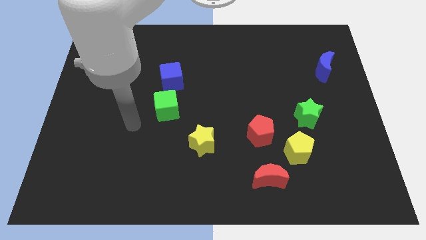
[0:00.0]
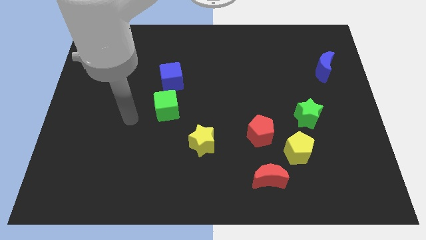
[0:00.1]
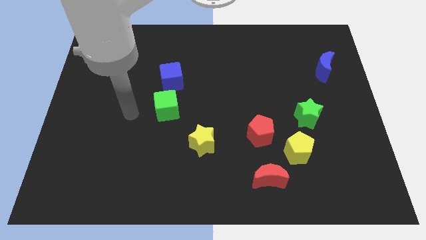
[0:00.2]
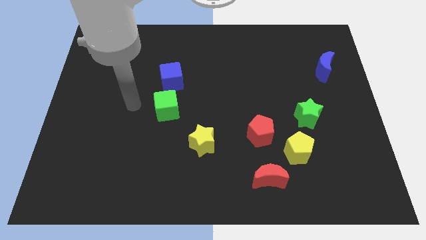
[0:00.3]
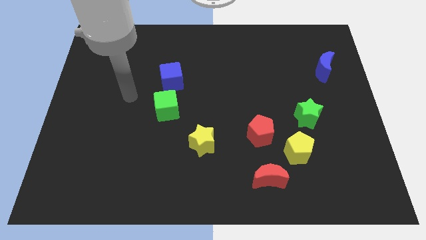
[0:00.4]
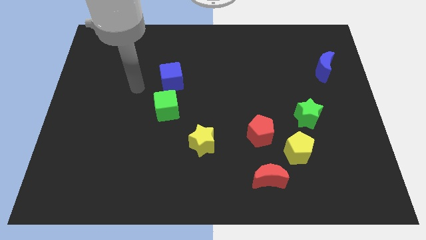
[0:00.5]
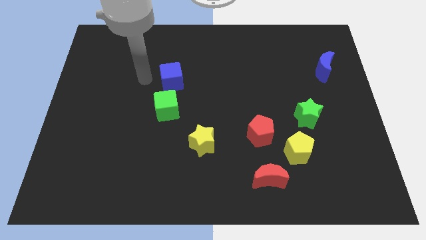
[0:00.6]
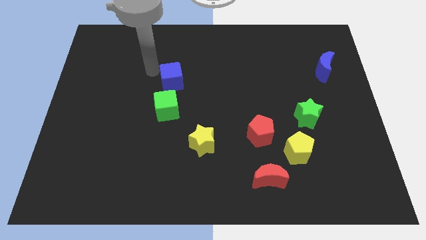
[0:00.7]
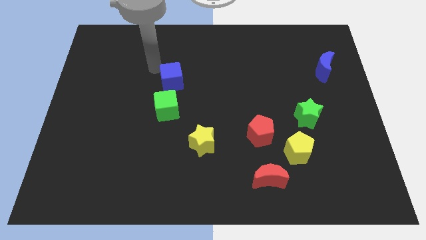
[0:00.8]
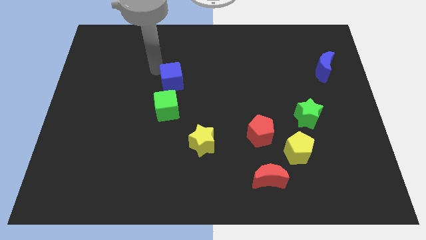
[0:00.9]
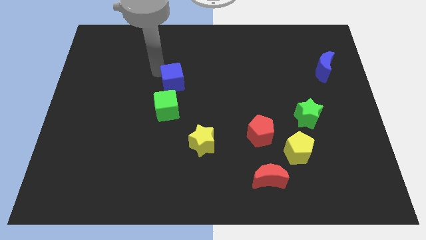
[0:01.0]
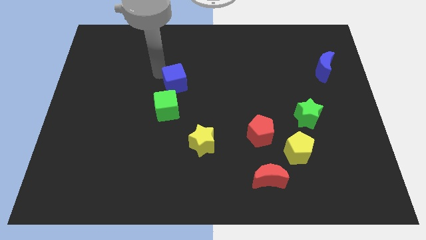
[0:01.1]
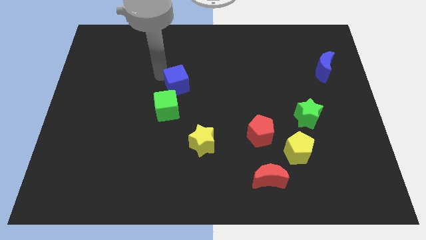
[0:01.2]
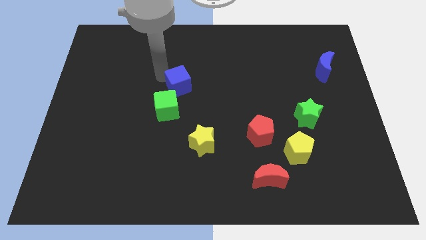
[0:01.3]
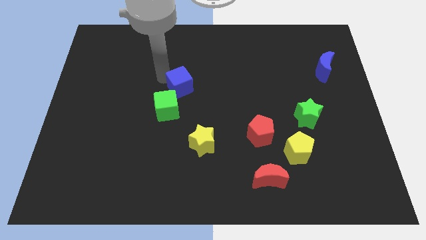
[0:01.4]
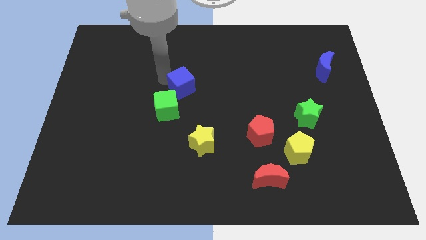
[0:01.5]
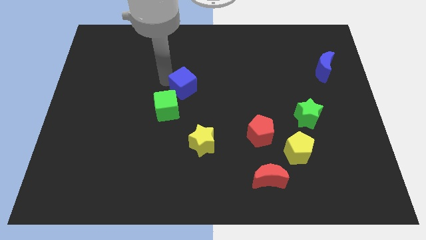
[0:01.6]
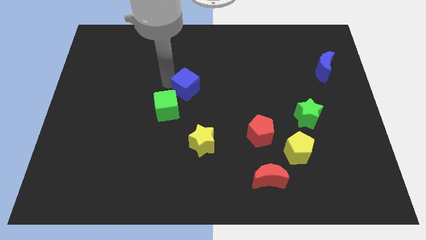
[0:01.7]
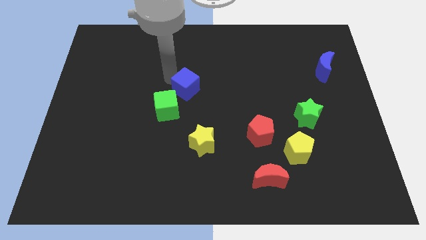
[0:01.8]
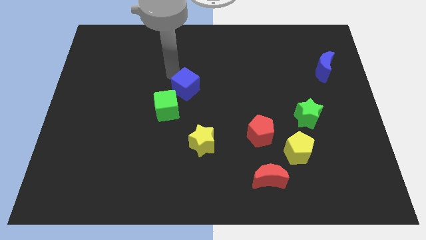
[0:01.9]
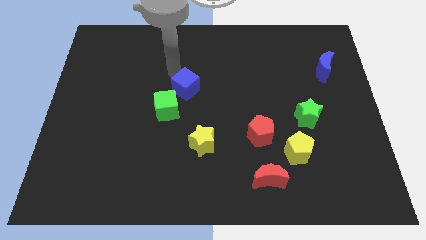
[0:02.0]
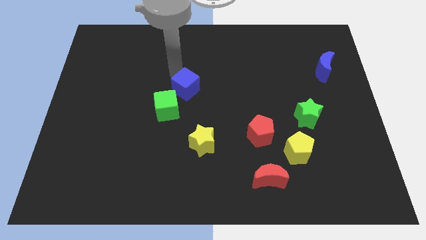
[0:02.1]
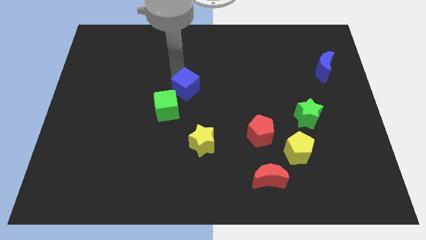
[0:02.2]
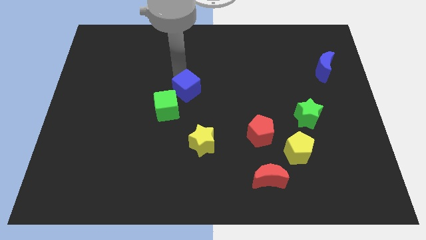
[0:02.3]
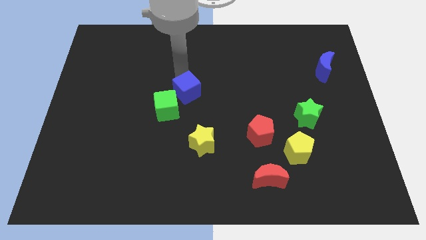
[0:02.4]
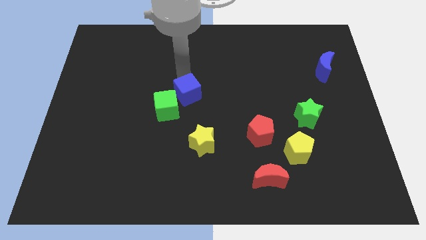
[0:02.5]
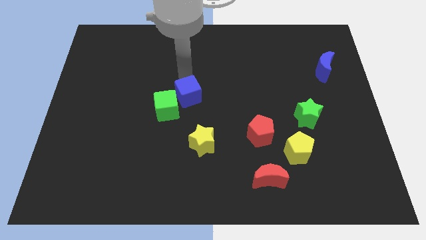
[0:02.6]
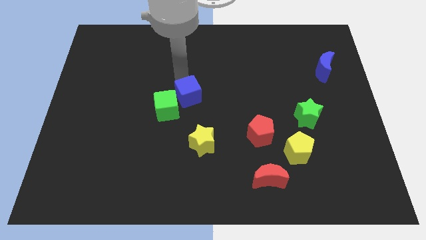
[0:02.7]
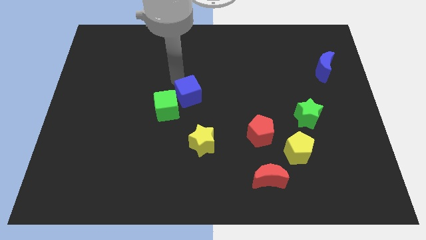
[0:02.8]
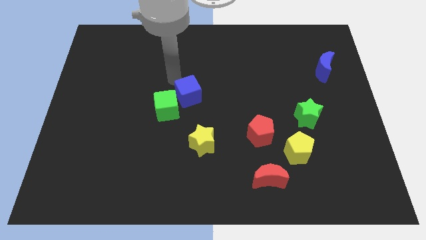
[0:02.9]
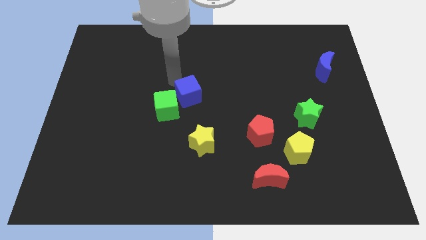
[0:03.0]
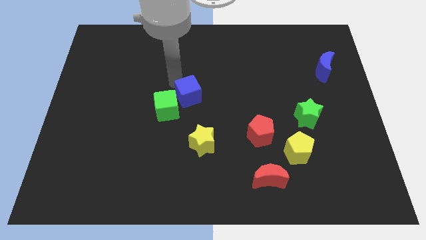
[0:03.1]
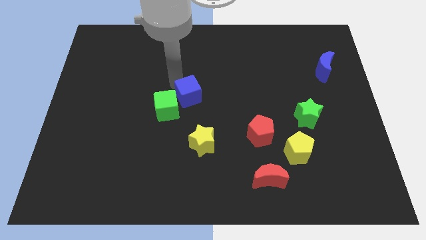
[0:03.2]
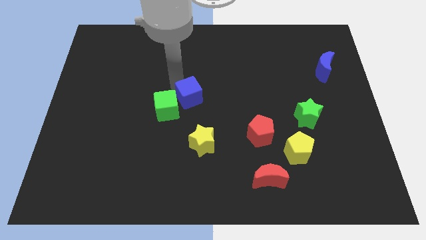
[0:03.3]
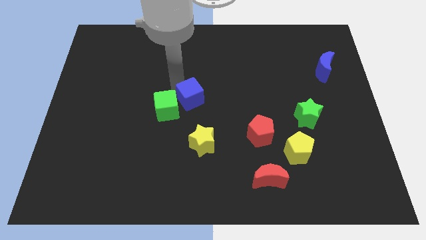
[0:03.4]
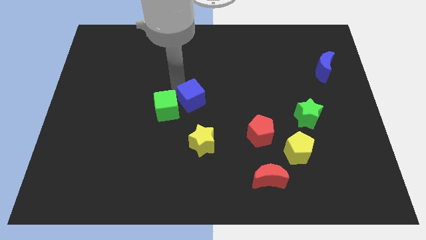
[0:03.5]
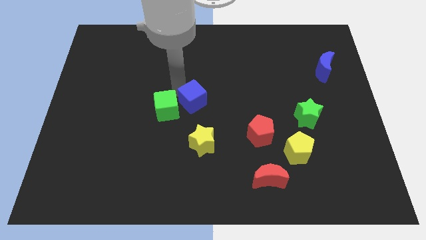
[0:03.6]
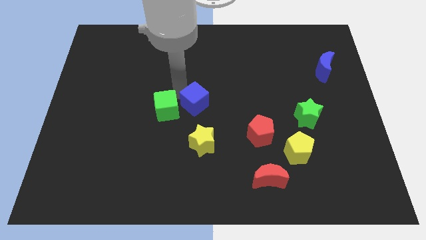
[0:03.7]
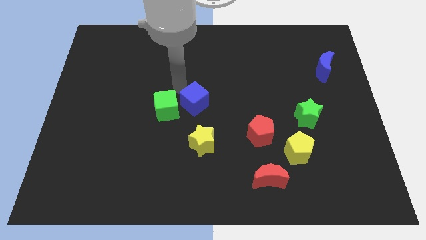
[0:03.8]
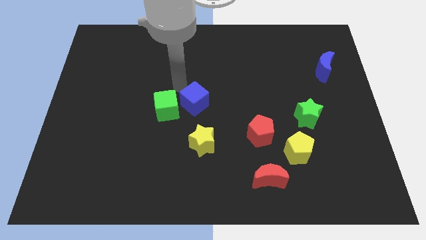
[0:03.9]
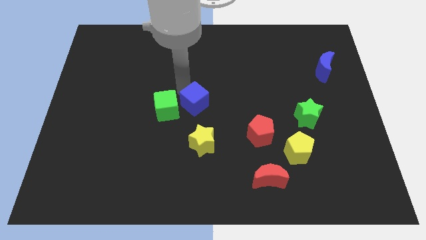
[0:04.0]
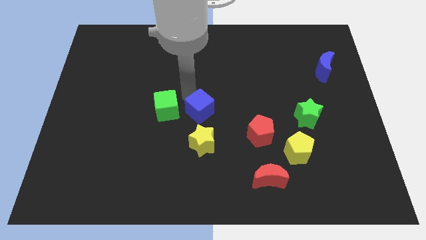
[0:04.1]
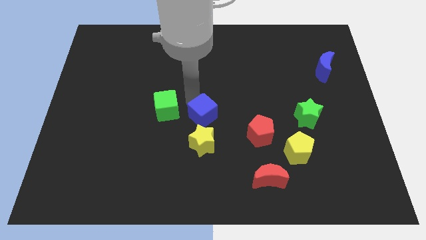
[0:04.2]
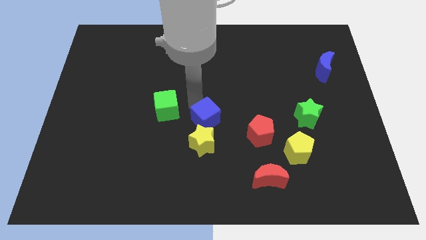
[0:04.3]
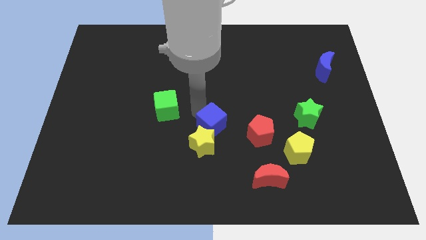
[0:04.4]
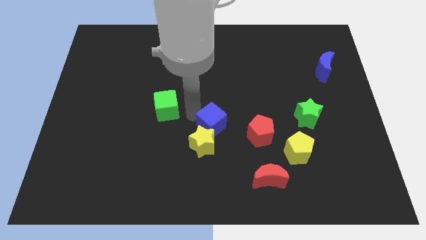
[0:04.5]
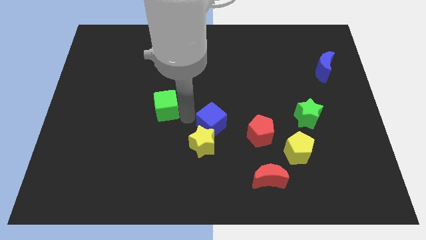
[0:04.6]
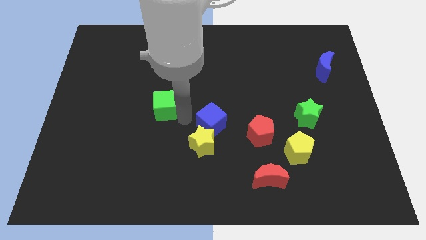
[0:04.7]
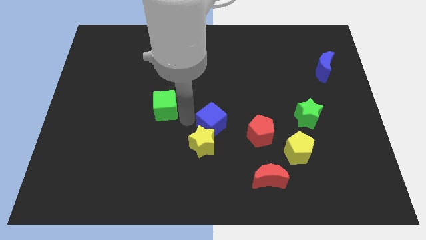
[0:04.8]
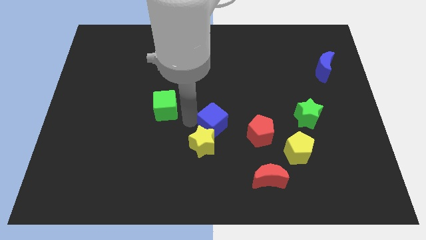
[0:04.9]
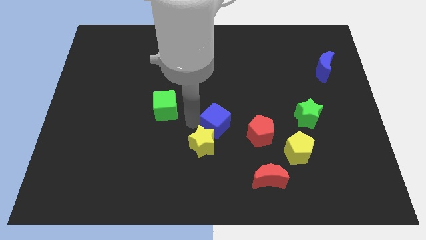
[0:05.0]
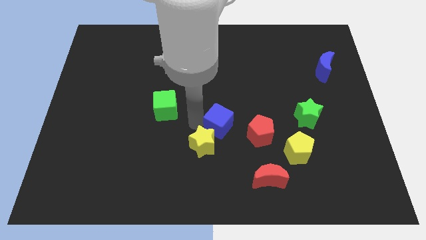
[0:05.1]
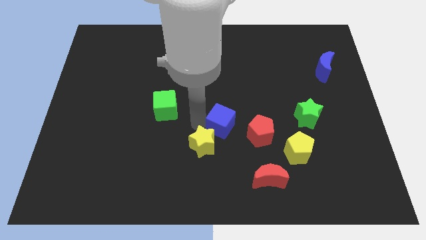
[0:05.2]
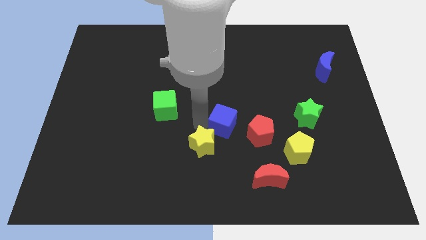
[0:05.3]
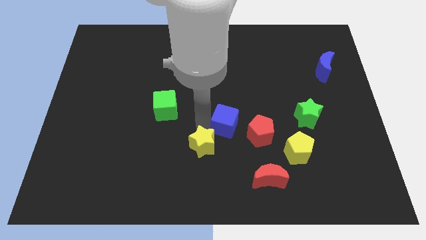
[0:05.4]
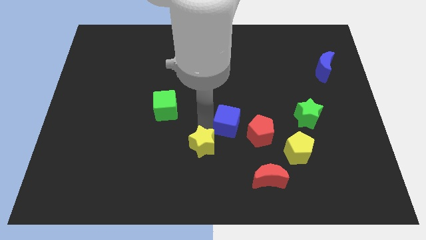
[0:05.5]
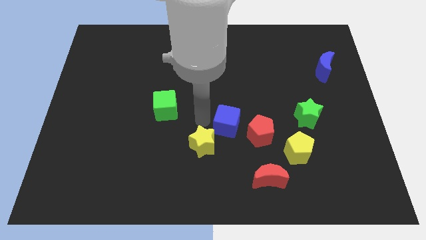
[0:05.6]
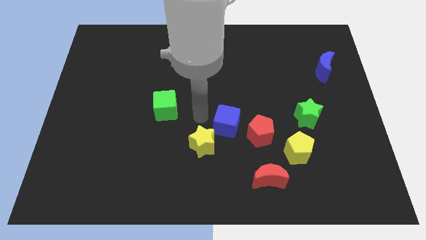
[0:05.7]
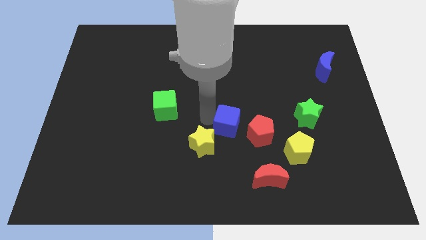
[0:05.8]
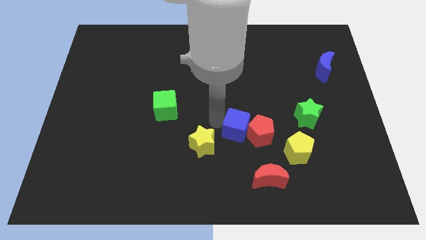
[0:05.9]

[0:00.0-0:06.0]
move the blue cube to the red pentagon

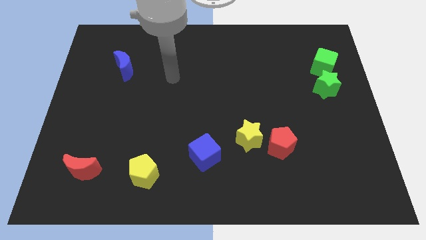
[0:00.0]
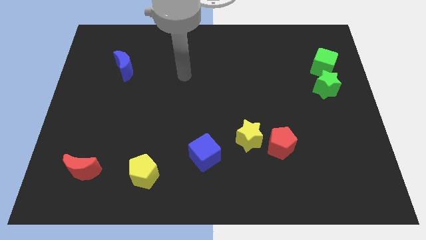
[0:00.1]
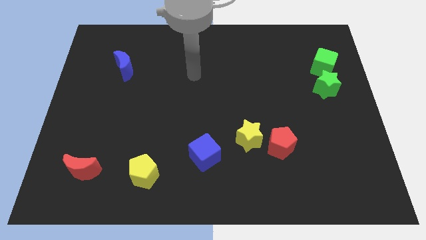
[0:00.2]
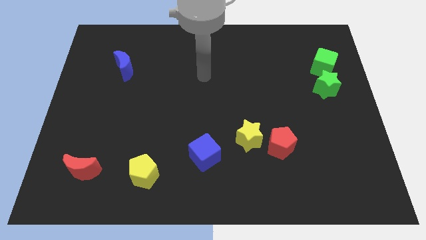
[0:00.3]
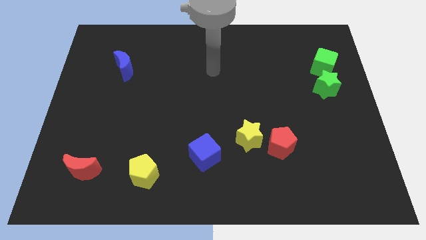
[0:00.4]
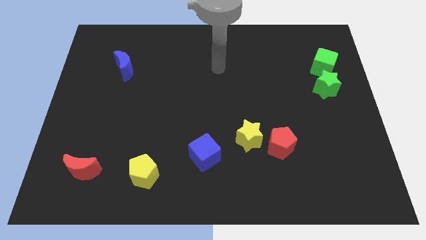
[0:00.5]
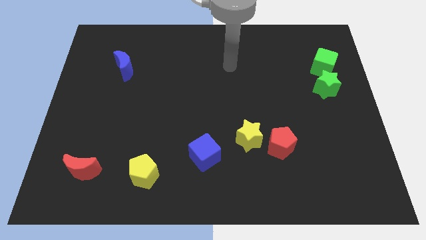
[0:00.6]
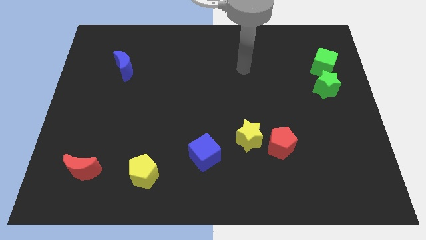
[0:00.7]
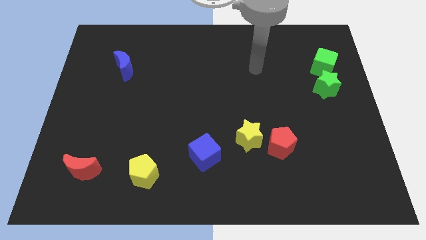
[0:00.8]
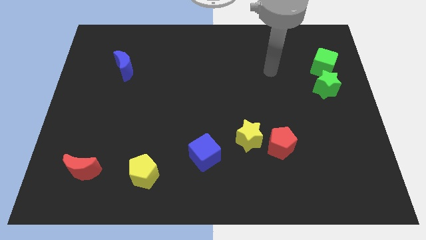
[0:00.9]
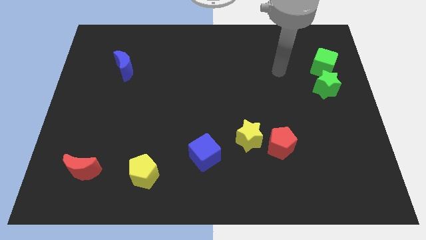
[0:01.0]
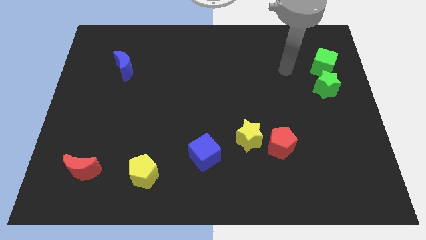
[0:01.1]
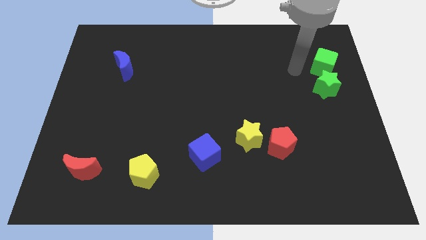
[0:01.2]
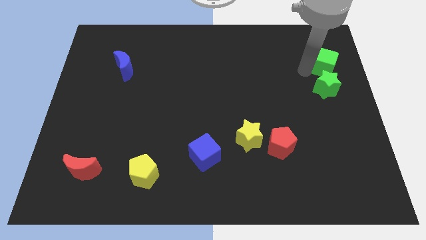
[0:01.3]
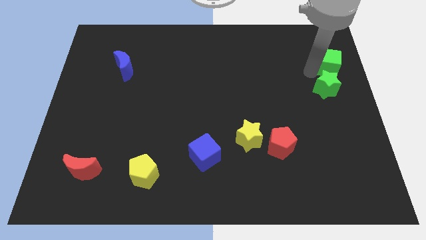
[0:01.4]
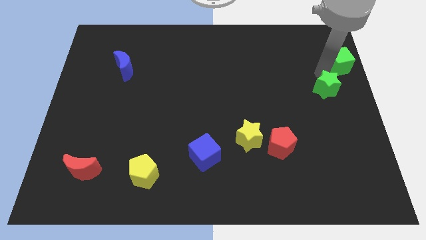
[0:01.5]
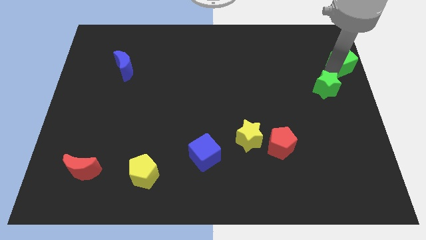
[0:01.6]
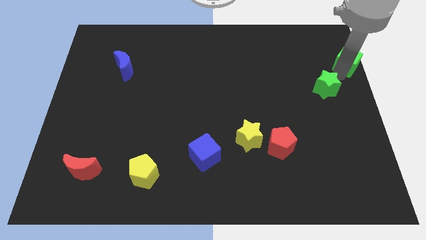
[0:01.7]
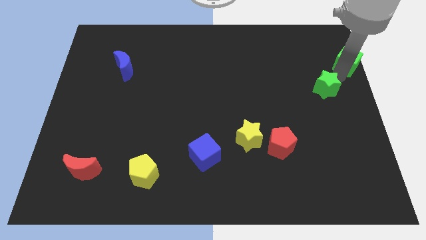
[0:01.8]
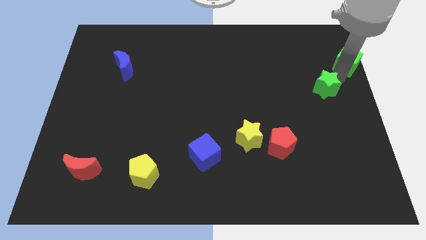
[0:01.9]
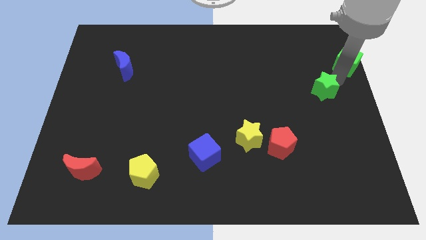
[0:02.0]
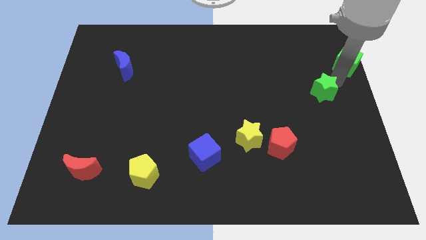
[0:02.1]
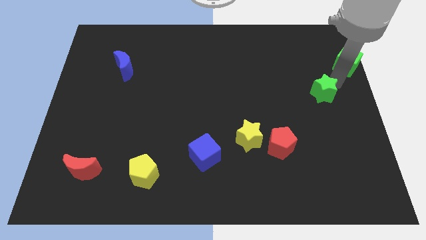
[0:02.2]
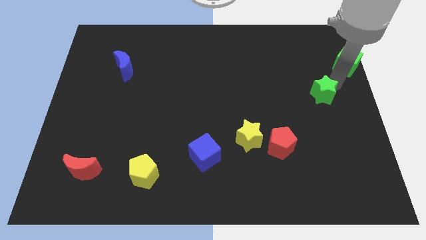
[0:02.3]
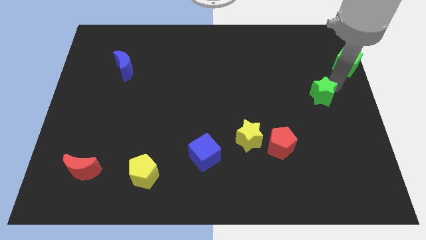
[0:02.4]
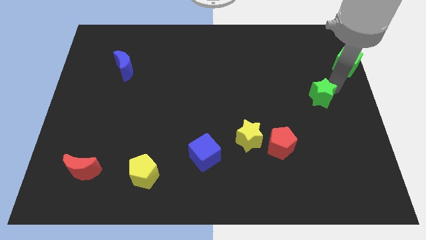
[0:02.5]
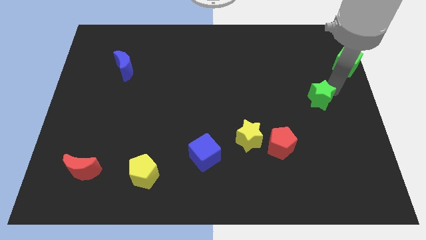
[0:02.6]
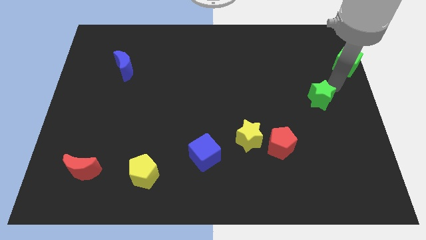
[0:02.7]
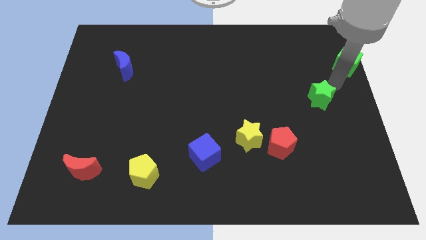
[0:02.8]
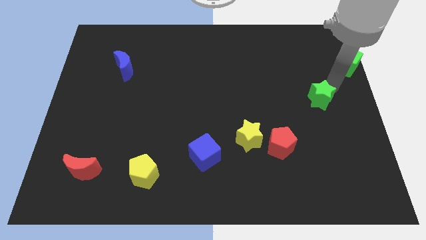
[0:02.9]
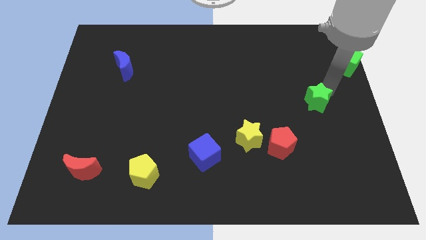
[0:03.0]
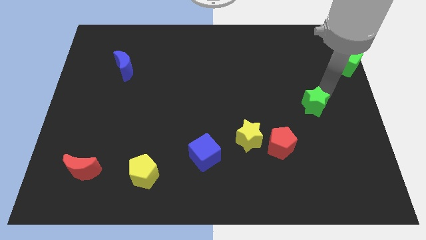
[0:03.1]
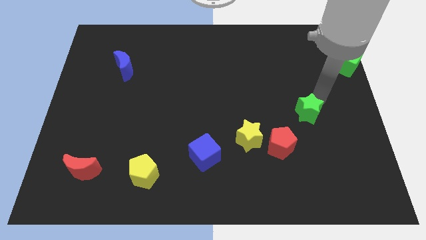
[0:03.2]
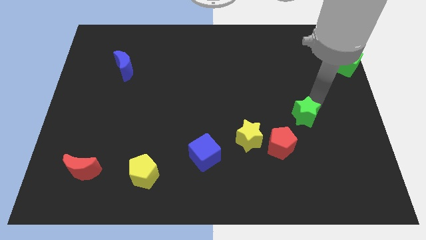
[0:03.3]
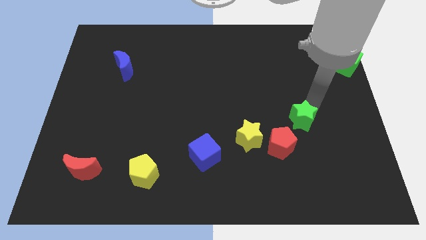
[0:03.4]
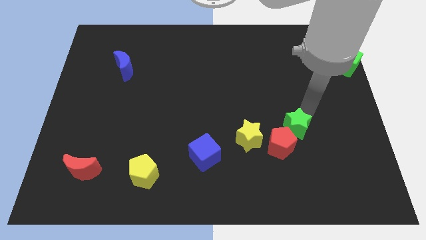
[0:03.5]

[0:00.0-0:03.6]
move the green star close to the red pentagon
